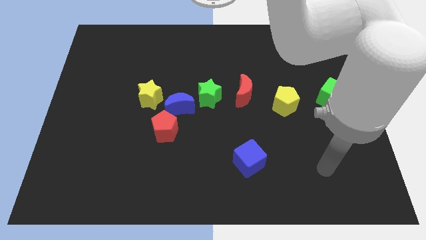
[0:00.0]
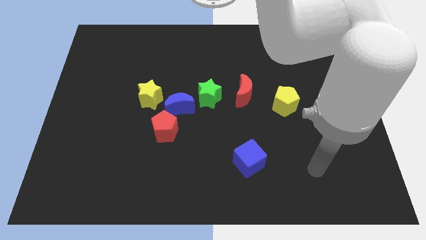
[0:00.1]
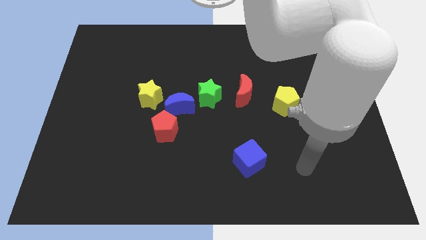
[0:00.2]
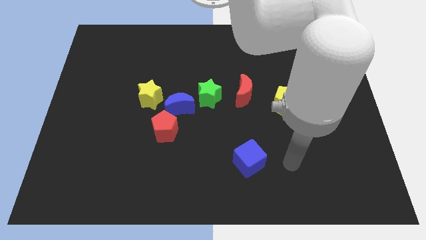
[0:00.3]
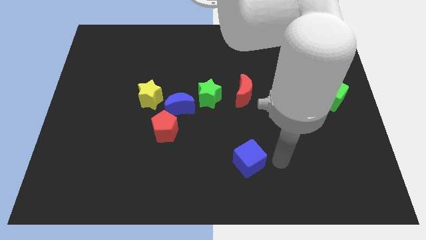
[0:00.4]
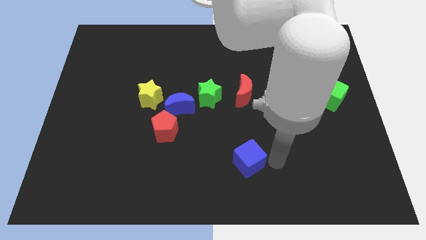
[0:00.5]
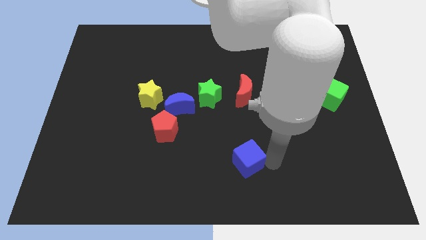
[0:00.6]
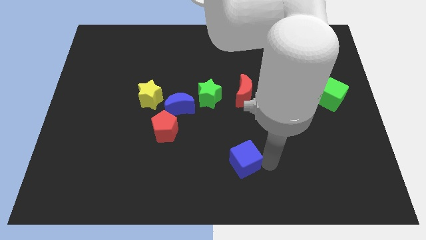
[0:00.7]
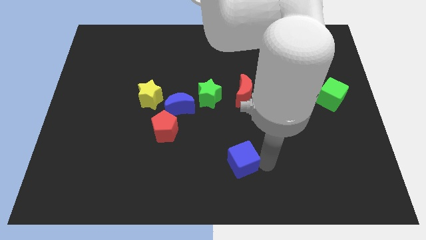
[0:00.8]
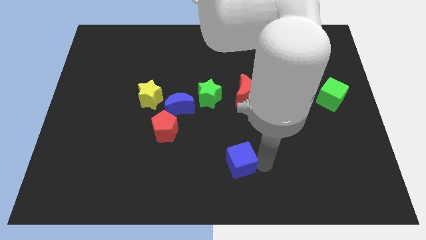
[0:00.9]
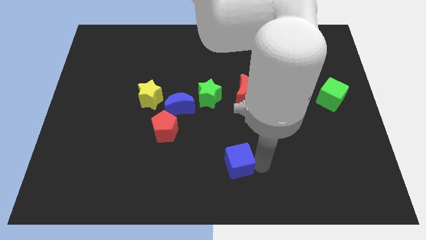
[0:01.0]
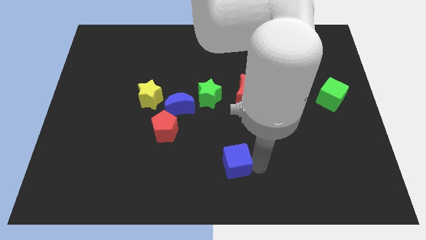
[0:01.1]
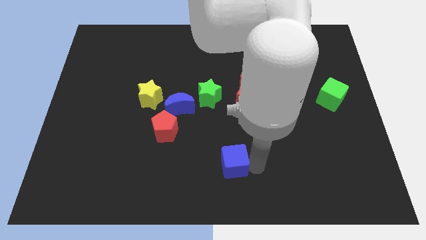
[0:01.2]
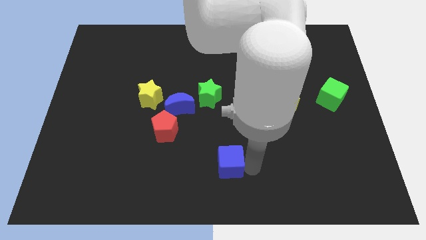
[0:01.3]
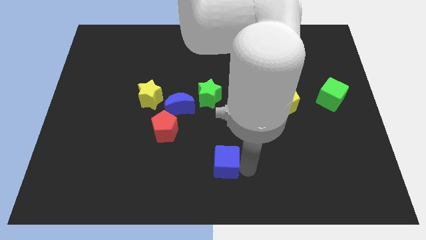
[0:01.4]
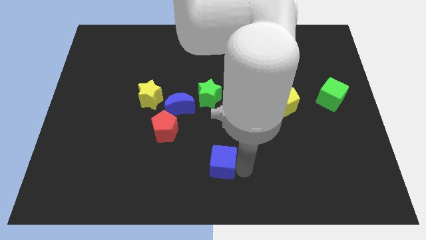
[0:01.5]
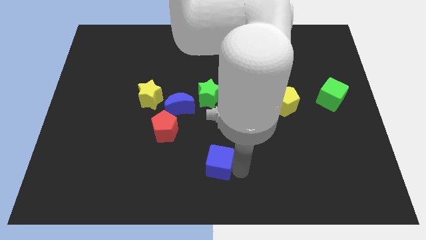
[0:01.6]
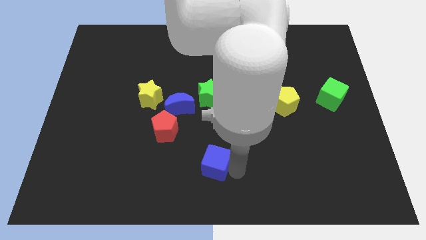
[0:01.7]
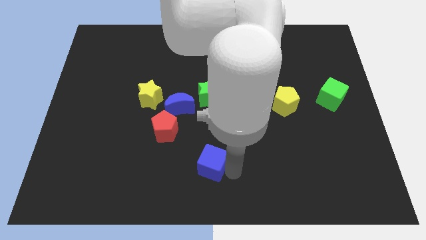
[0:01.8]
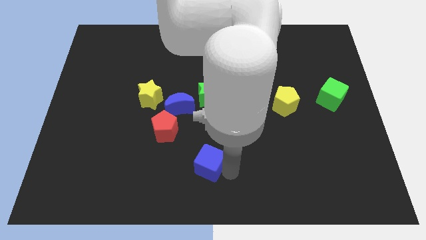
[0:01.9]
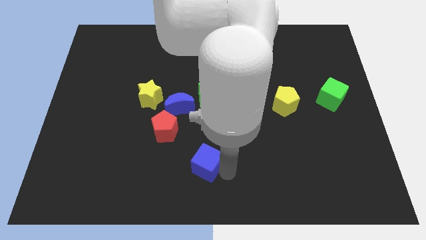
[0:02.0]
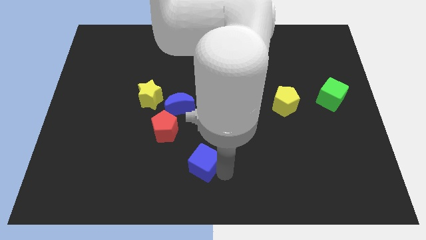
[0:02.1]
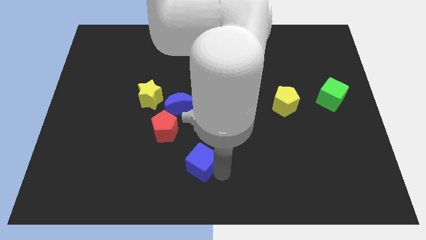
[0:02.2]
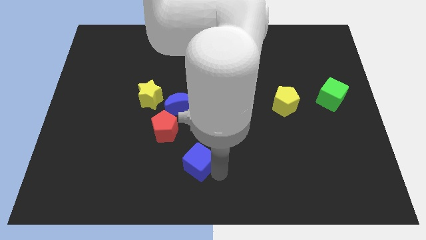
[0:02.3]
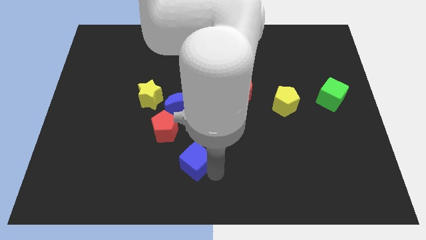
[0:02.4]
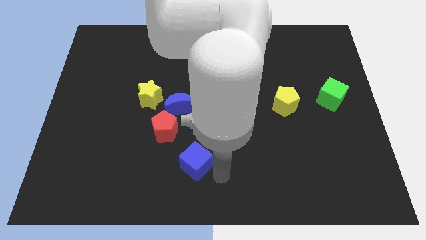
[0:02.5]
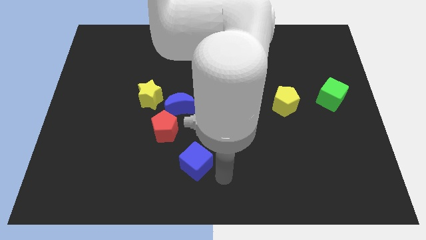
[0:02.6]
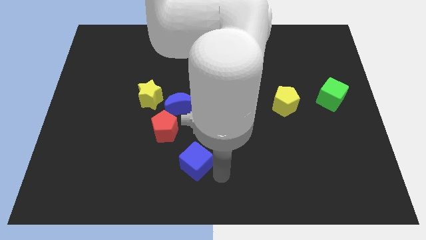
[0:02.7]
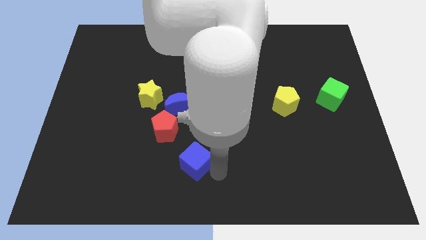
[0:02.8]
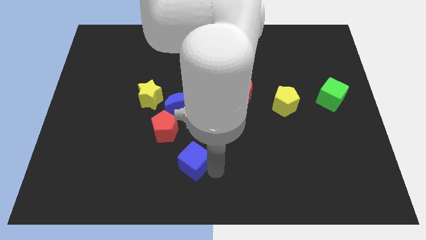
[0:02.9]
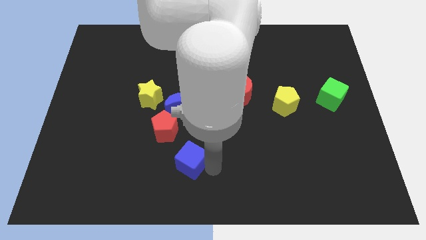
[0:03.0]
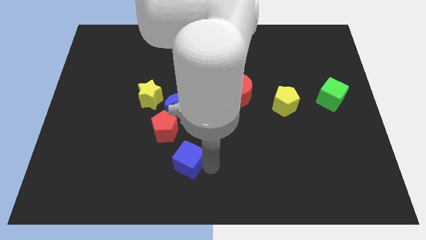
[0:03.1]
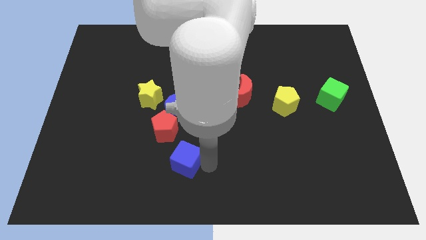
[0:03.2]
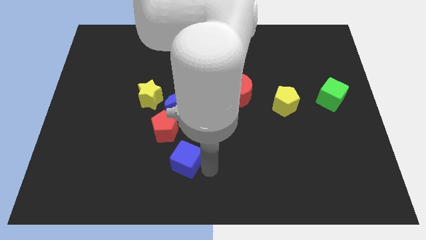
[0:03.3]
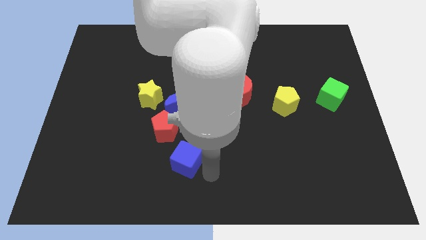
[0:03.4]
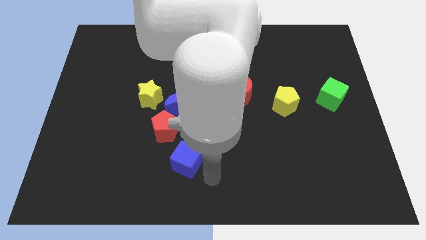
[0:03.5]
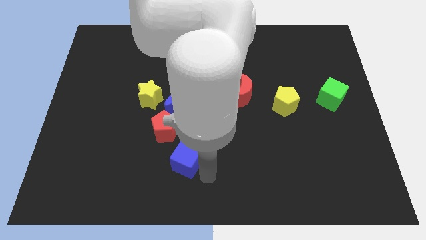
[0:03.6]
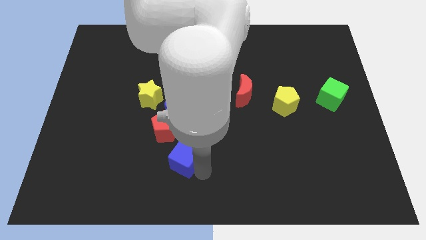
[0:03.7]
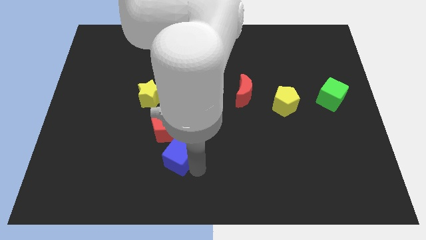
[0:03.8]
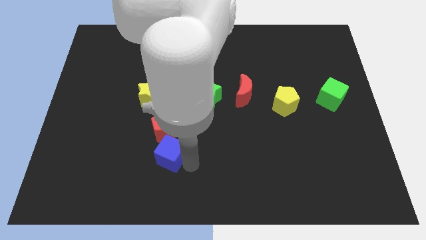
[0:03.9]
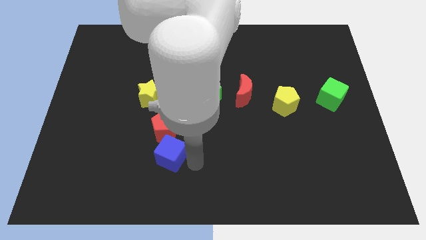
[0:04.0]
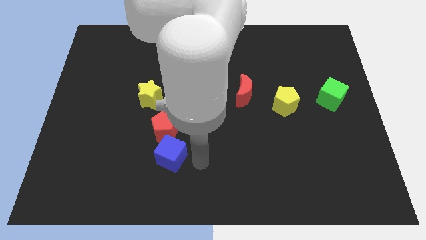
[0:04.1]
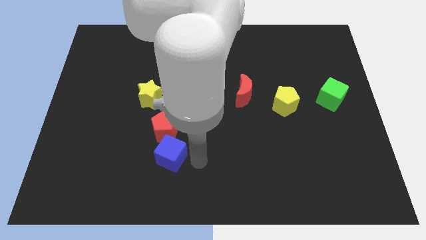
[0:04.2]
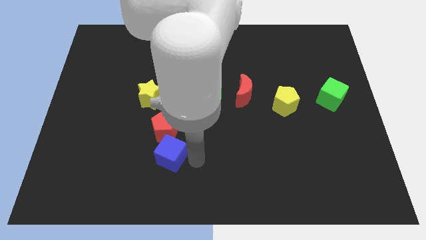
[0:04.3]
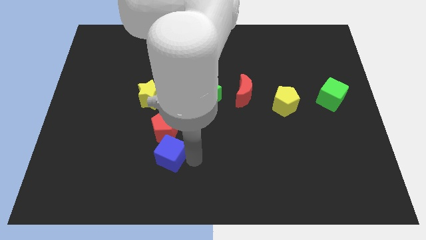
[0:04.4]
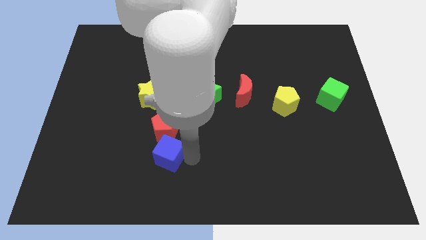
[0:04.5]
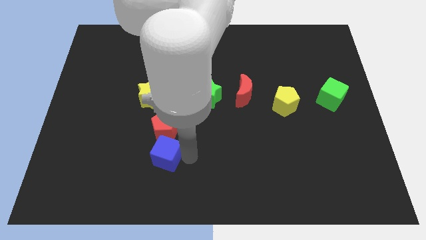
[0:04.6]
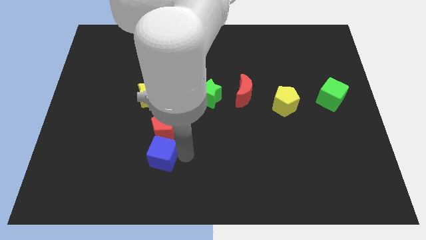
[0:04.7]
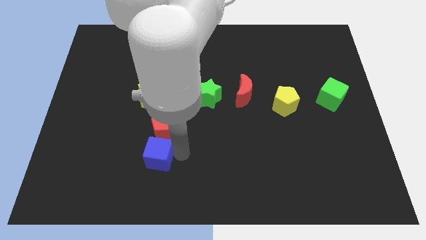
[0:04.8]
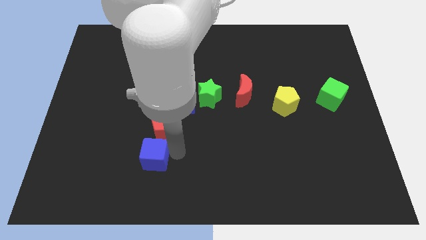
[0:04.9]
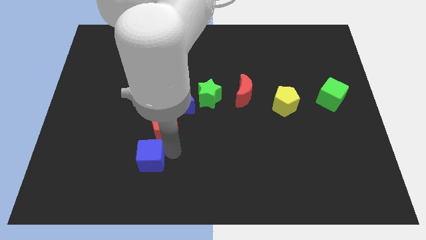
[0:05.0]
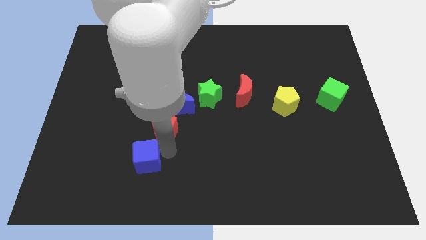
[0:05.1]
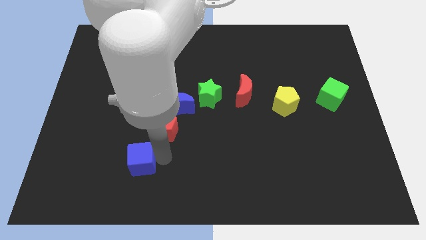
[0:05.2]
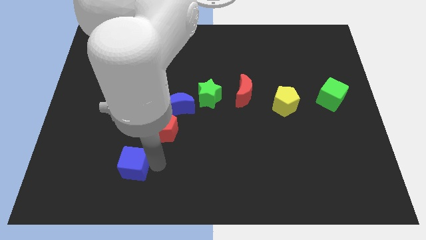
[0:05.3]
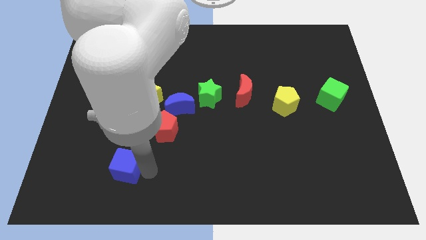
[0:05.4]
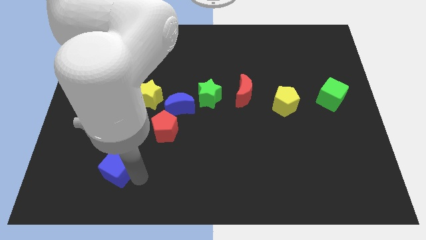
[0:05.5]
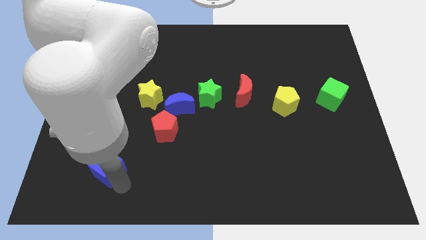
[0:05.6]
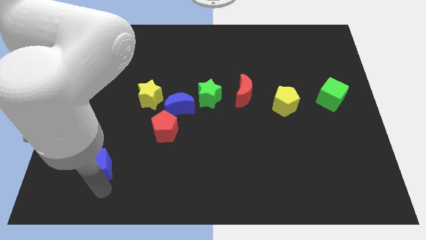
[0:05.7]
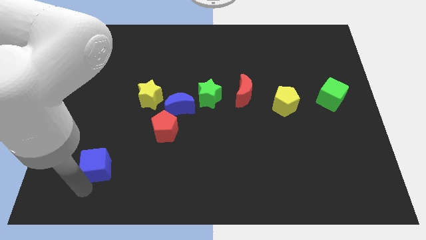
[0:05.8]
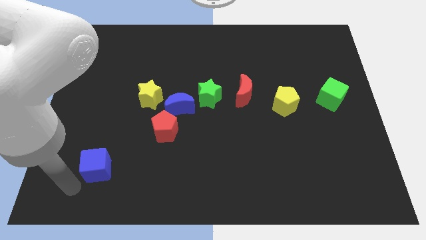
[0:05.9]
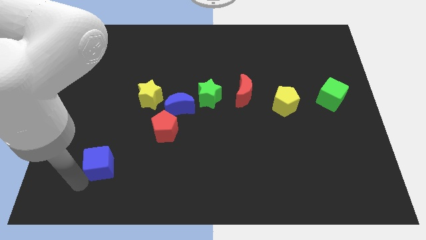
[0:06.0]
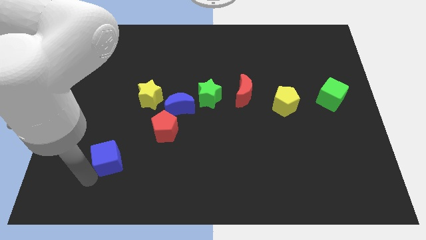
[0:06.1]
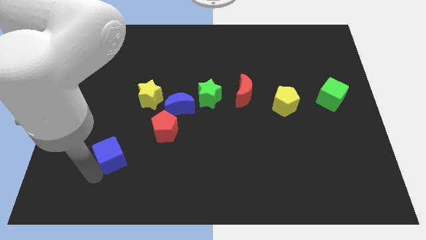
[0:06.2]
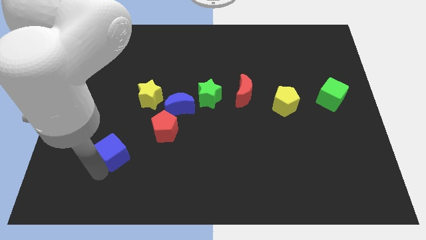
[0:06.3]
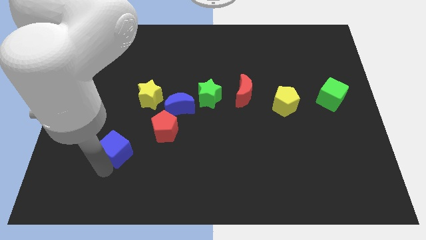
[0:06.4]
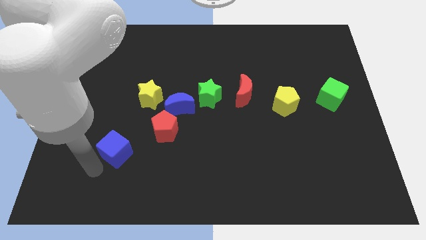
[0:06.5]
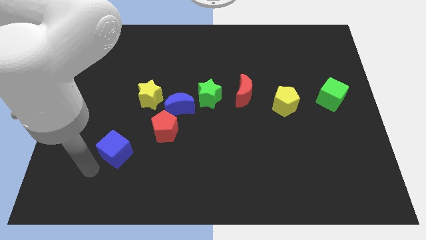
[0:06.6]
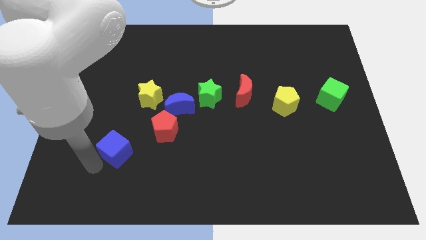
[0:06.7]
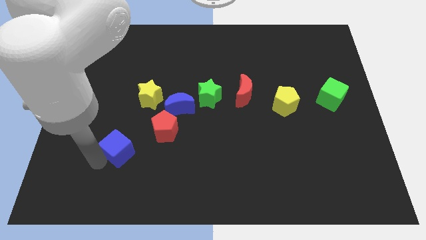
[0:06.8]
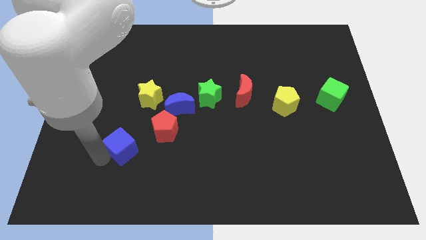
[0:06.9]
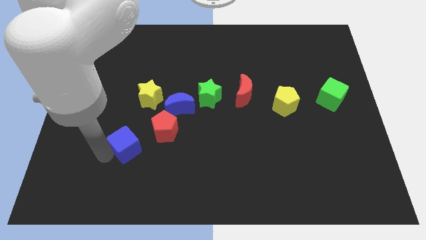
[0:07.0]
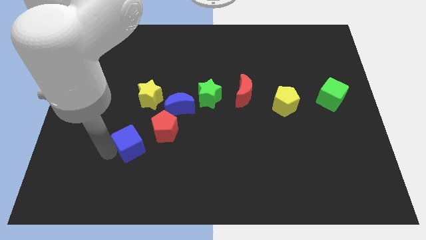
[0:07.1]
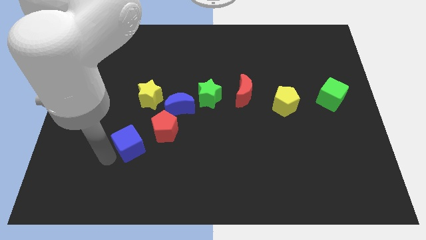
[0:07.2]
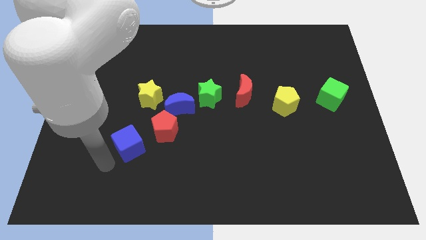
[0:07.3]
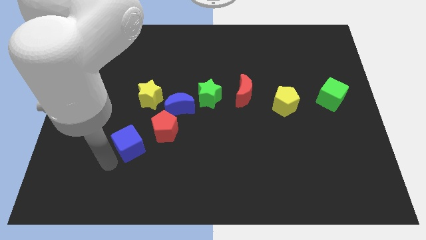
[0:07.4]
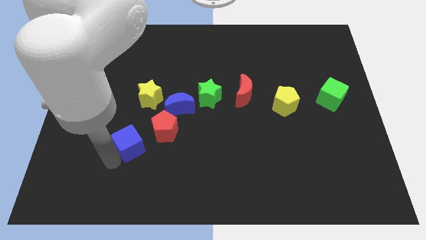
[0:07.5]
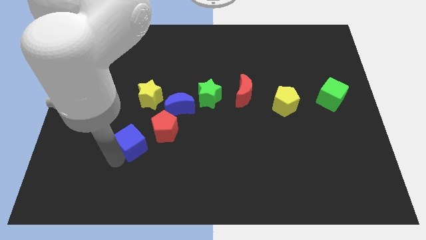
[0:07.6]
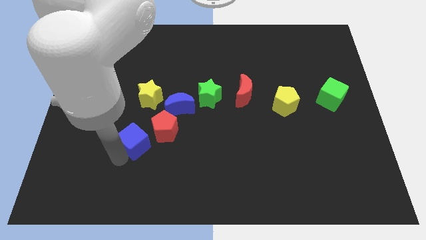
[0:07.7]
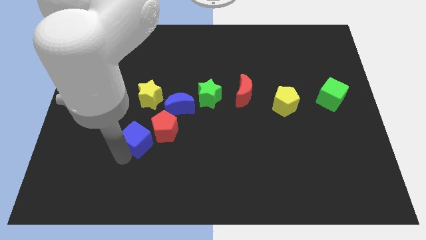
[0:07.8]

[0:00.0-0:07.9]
move the blue cube to the bottom left of the blue moon
